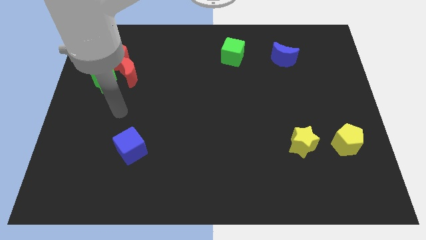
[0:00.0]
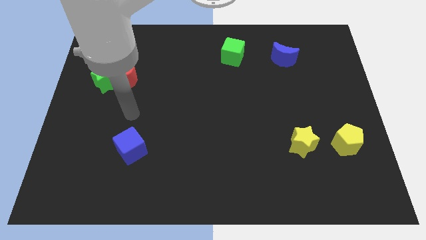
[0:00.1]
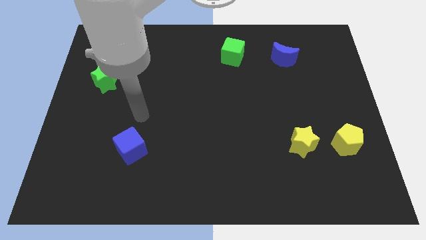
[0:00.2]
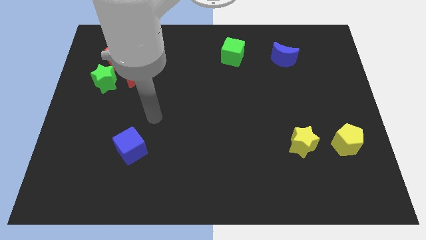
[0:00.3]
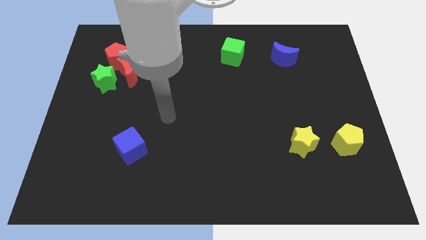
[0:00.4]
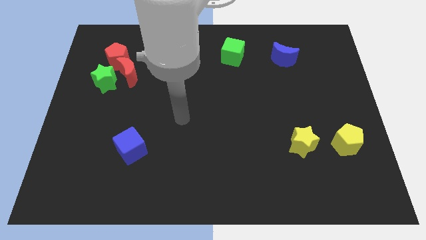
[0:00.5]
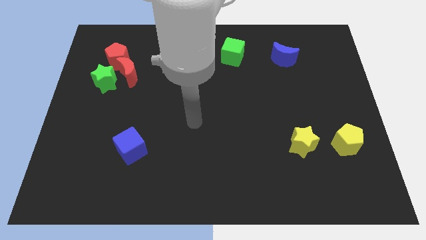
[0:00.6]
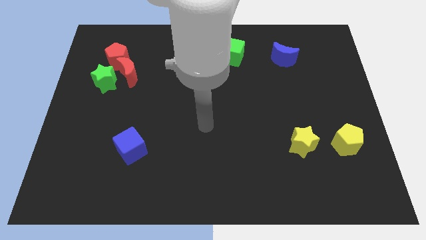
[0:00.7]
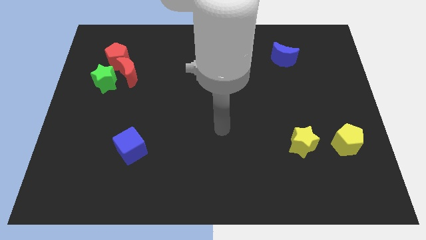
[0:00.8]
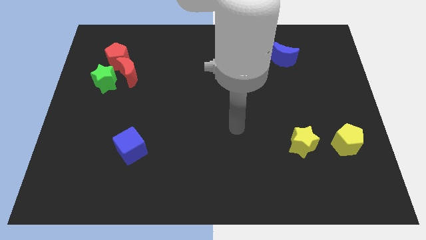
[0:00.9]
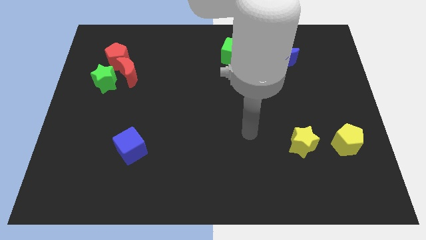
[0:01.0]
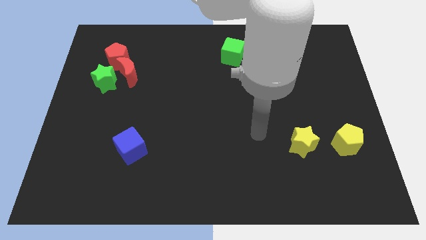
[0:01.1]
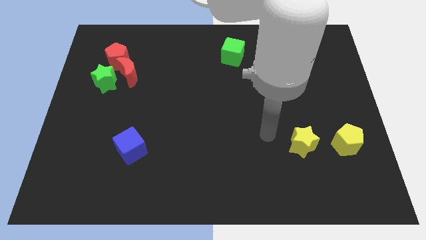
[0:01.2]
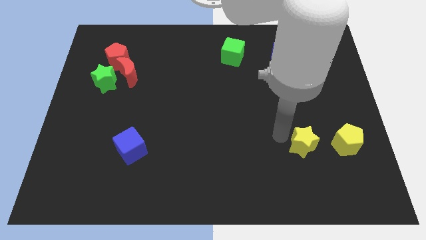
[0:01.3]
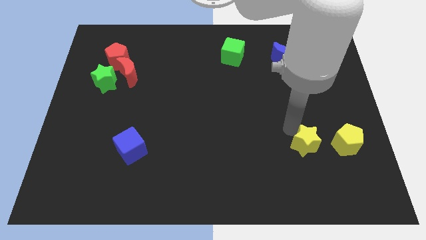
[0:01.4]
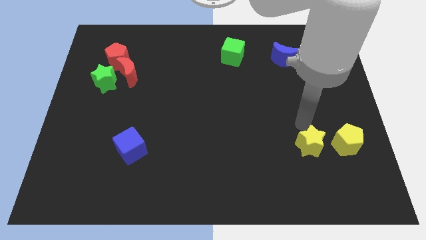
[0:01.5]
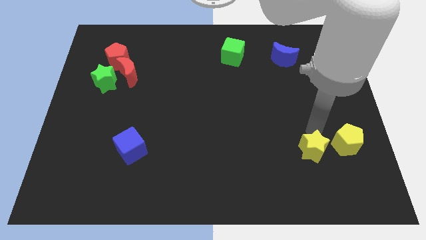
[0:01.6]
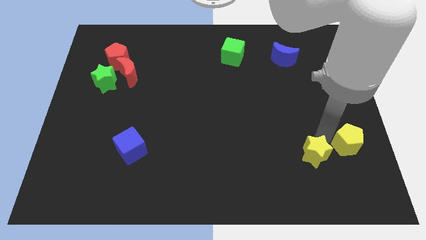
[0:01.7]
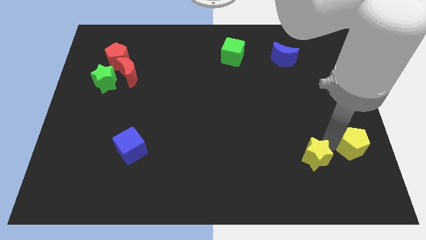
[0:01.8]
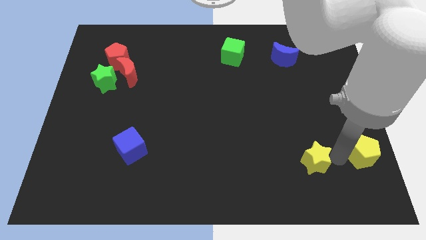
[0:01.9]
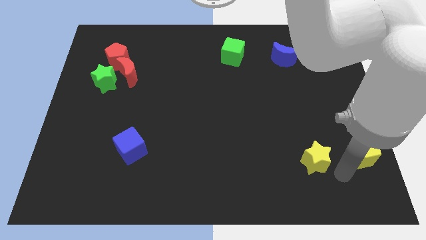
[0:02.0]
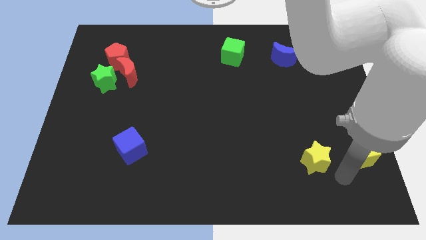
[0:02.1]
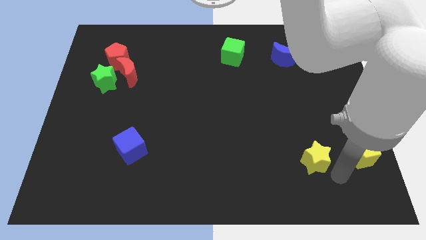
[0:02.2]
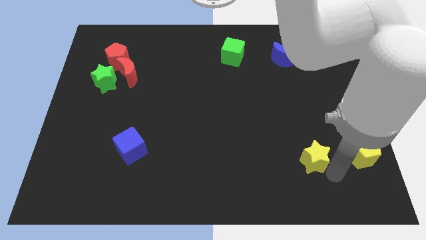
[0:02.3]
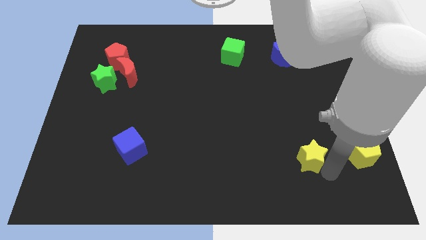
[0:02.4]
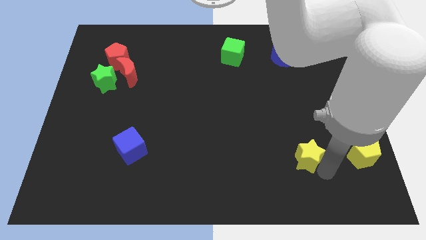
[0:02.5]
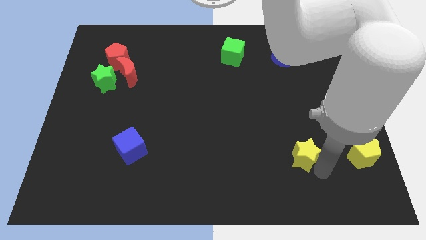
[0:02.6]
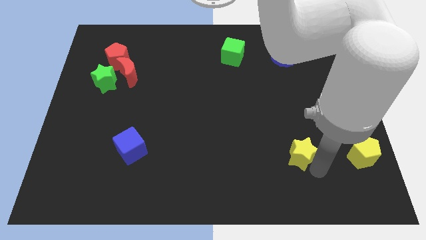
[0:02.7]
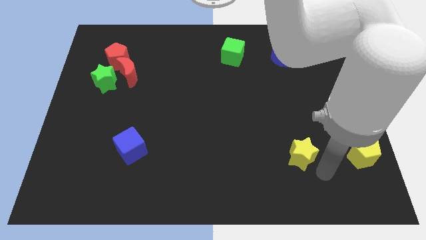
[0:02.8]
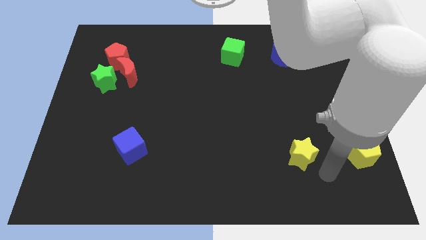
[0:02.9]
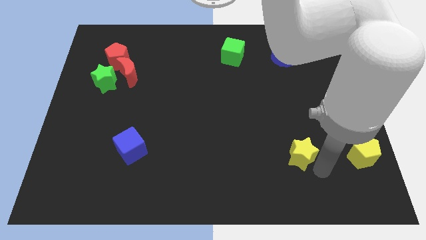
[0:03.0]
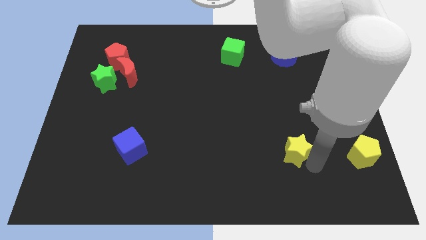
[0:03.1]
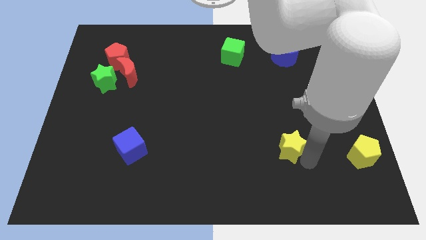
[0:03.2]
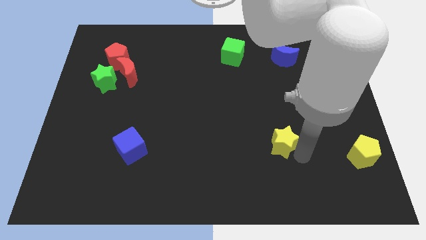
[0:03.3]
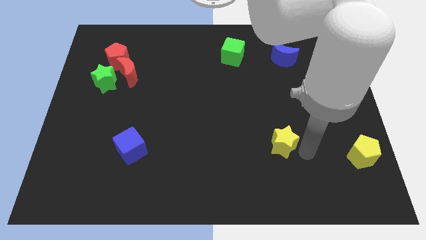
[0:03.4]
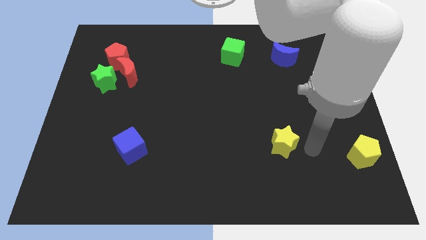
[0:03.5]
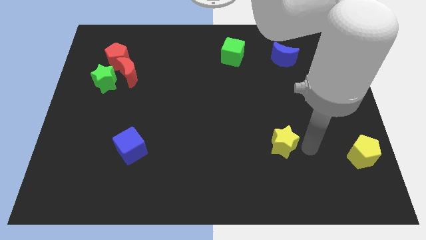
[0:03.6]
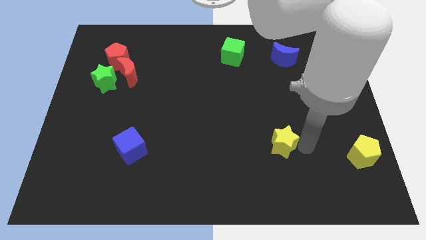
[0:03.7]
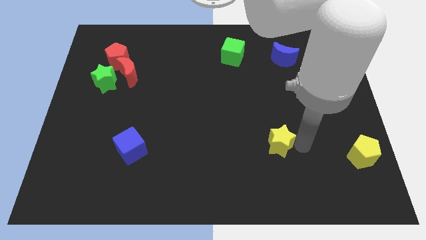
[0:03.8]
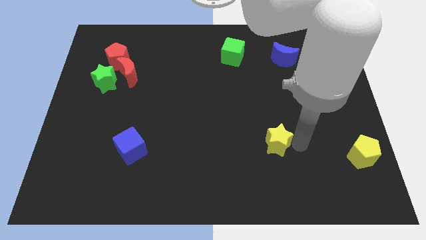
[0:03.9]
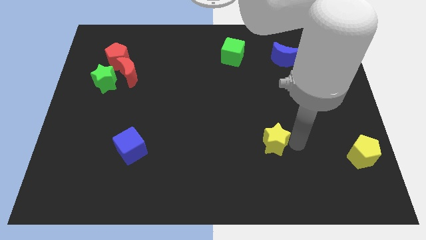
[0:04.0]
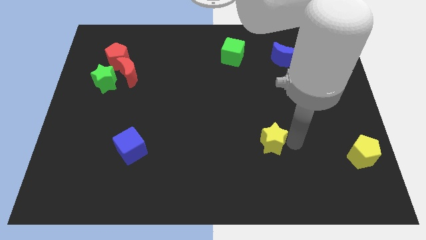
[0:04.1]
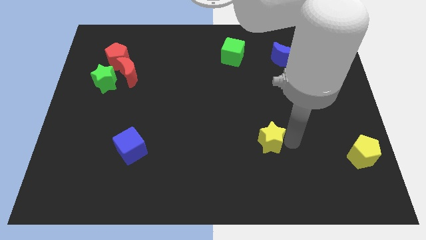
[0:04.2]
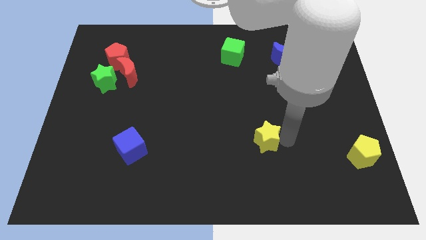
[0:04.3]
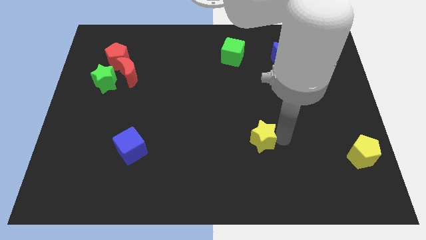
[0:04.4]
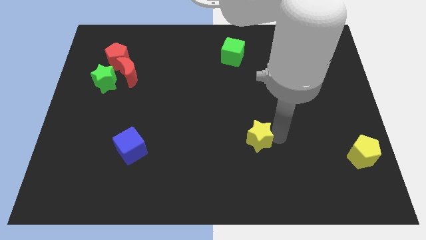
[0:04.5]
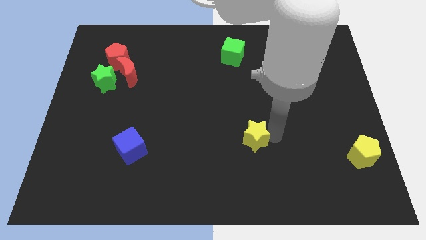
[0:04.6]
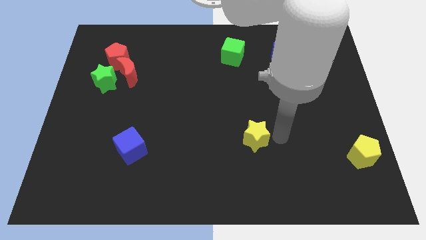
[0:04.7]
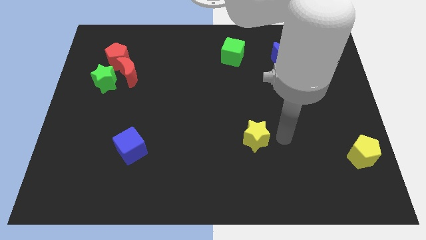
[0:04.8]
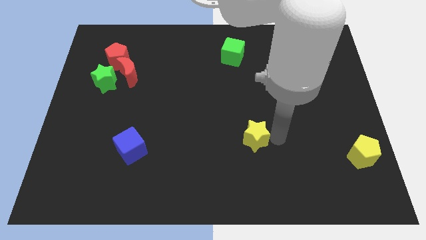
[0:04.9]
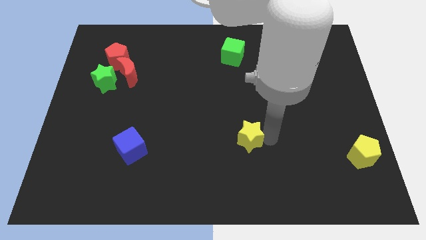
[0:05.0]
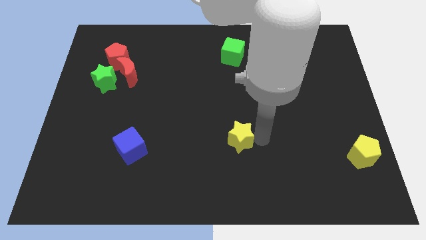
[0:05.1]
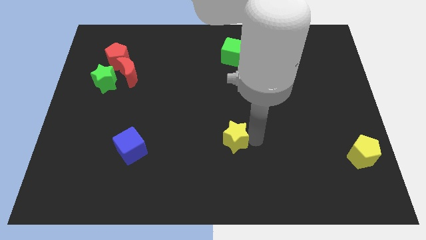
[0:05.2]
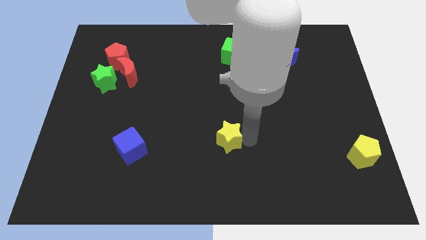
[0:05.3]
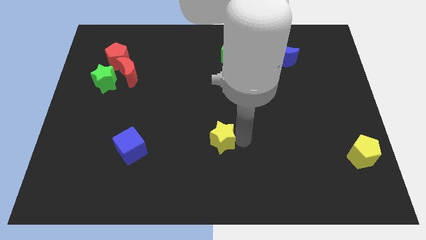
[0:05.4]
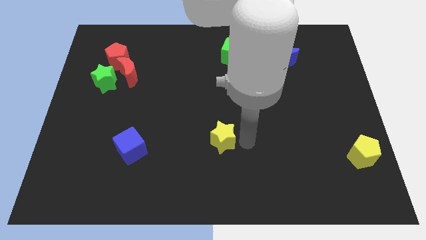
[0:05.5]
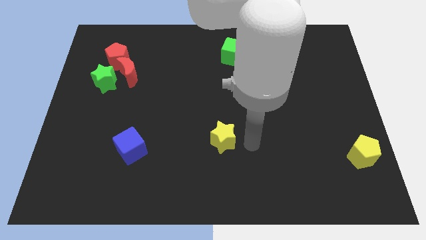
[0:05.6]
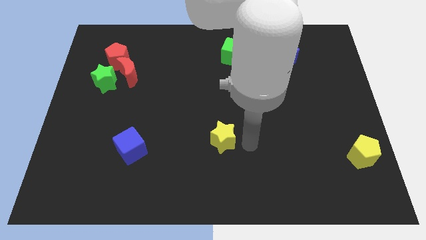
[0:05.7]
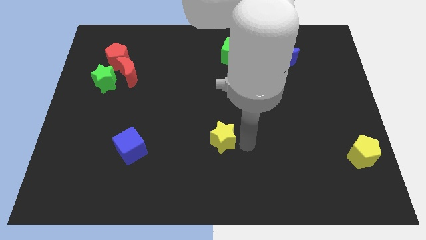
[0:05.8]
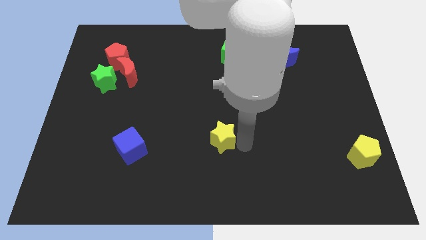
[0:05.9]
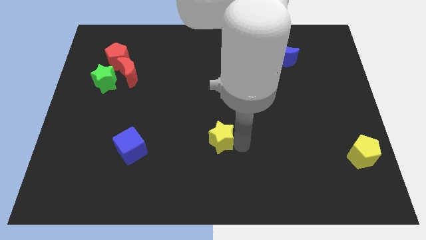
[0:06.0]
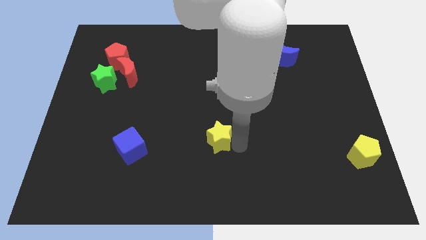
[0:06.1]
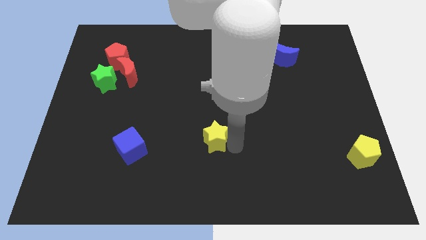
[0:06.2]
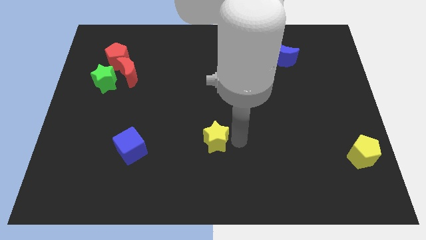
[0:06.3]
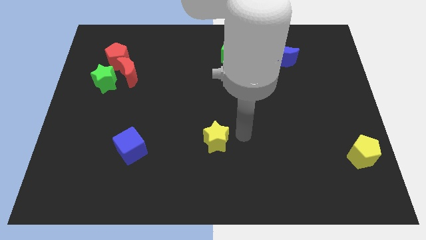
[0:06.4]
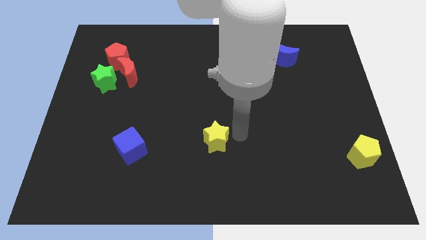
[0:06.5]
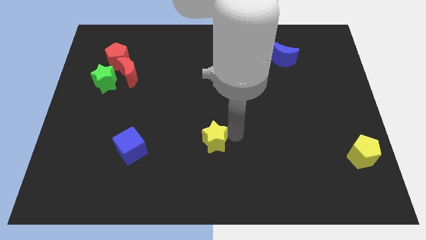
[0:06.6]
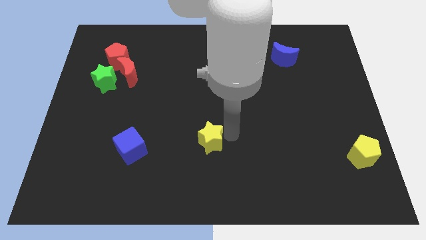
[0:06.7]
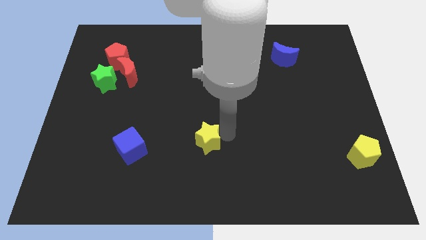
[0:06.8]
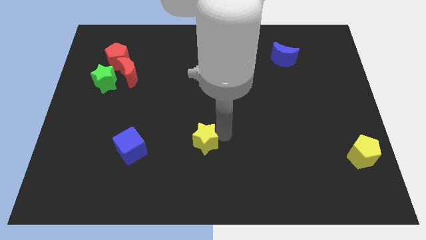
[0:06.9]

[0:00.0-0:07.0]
push the yellow star to the right of the blue cube
